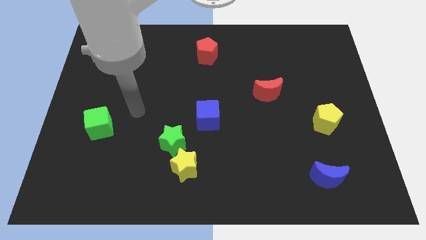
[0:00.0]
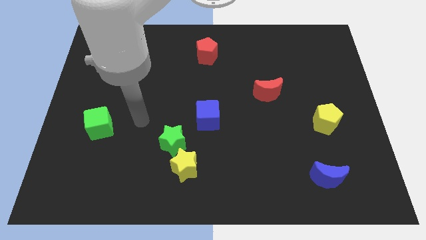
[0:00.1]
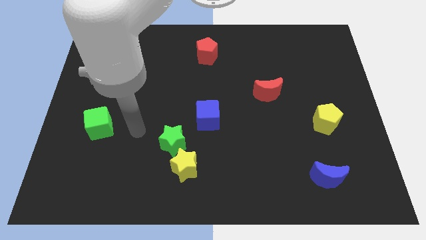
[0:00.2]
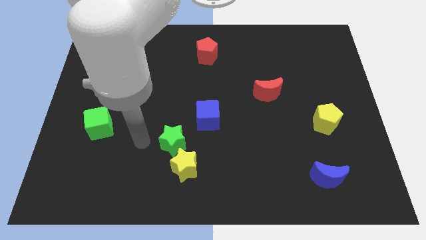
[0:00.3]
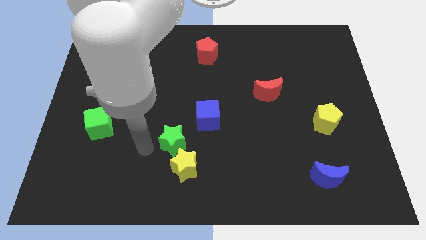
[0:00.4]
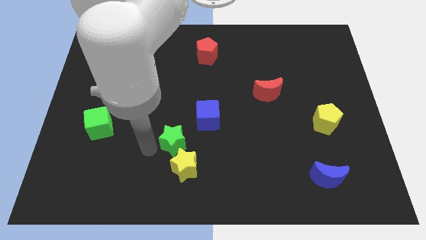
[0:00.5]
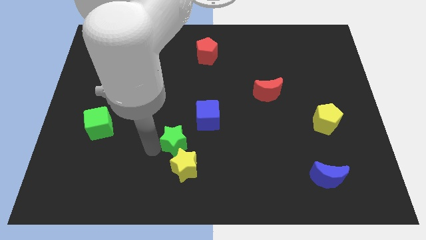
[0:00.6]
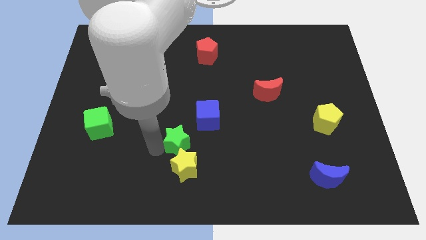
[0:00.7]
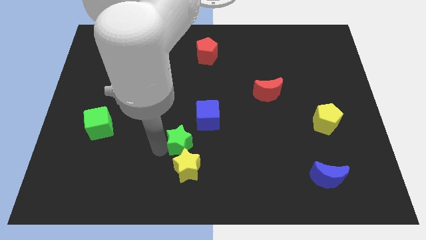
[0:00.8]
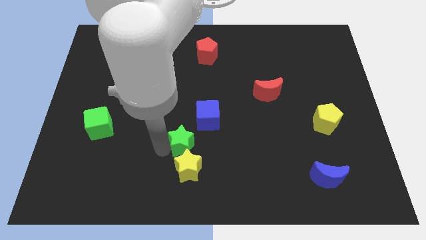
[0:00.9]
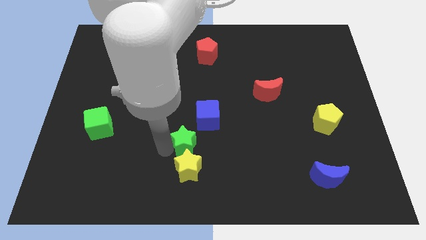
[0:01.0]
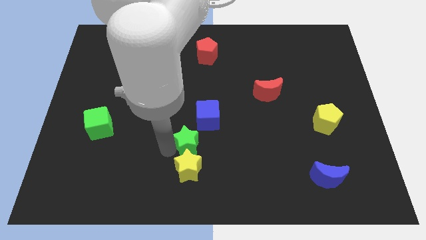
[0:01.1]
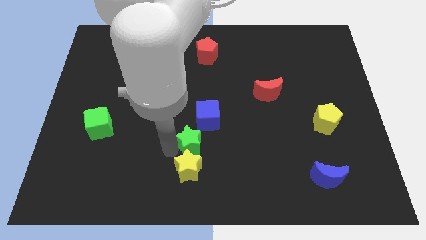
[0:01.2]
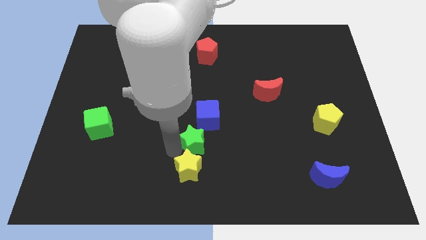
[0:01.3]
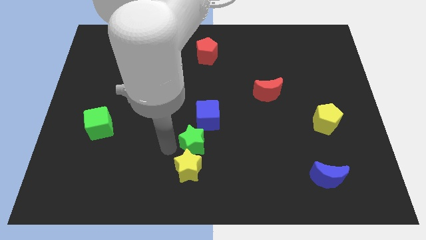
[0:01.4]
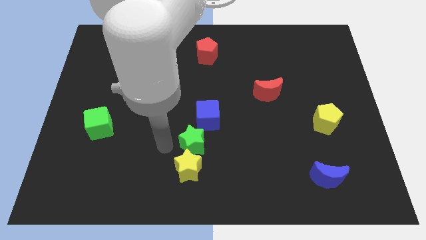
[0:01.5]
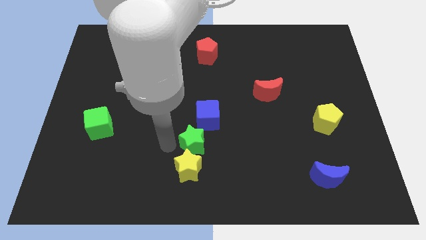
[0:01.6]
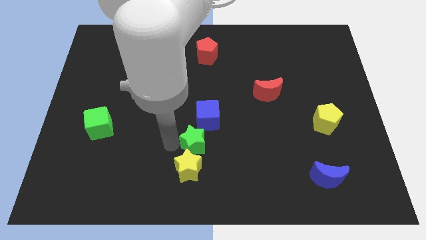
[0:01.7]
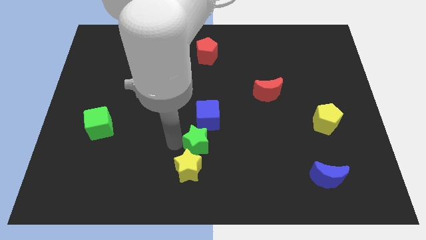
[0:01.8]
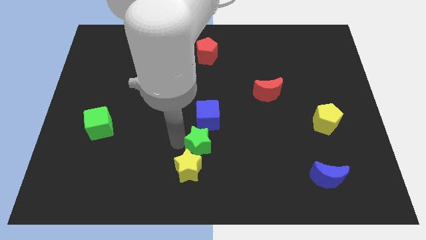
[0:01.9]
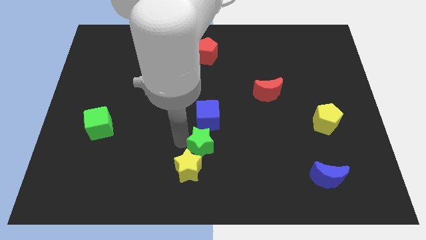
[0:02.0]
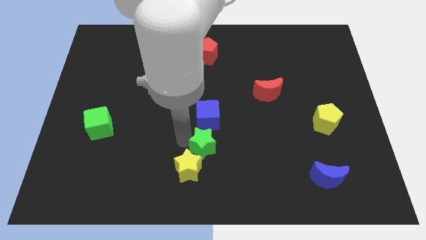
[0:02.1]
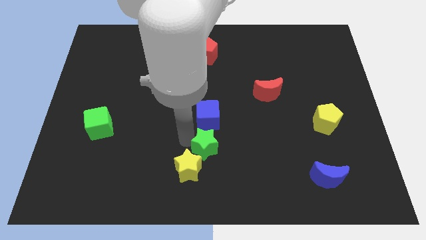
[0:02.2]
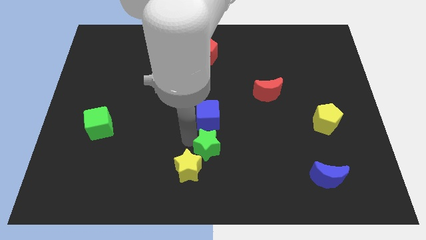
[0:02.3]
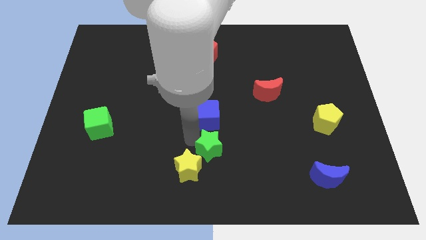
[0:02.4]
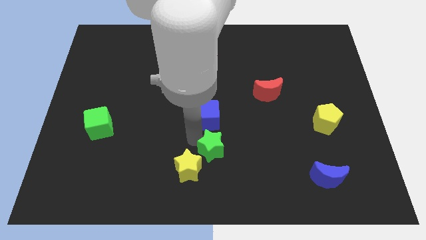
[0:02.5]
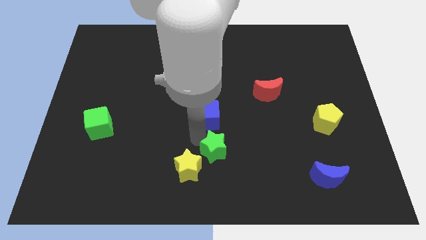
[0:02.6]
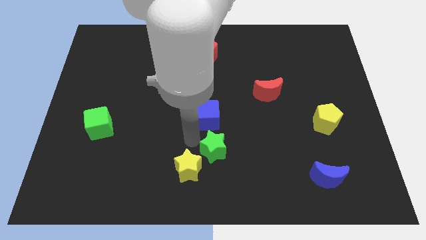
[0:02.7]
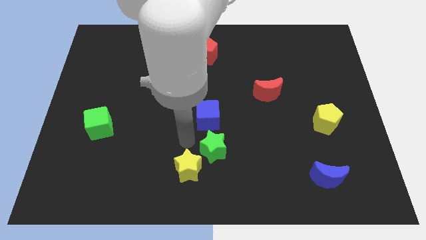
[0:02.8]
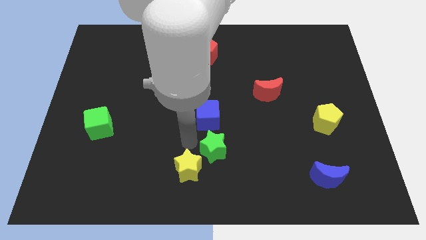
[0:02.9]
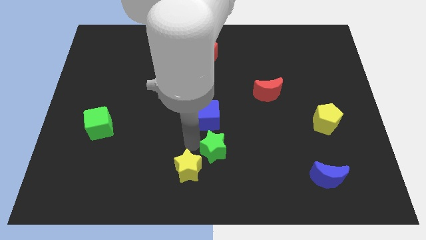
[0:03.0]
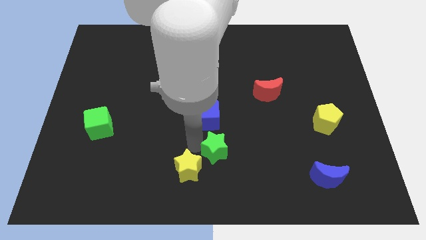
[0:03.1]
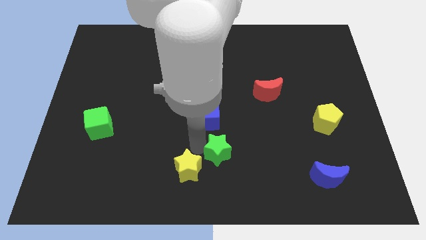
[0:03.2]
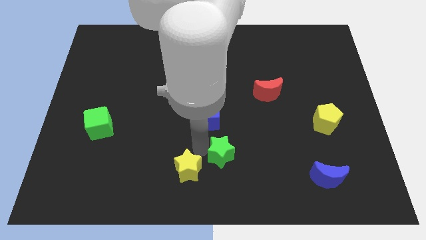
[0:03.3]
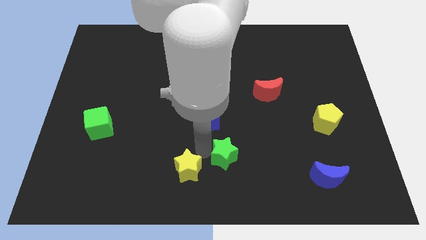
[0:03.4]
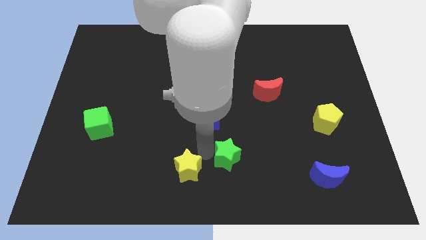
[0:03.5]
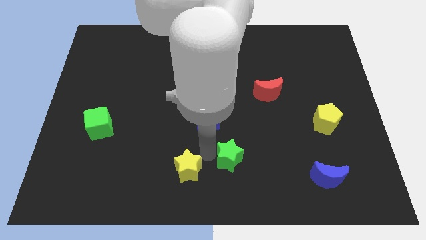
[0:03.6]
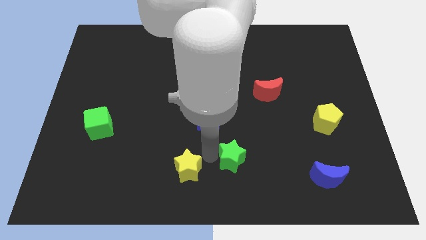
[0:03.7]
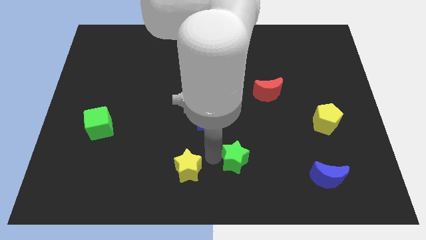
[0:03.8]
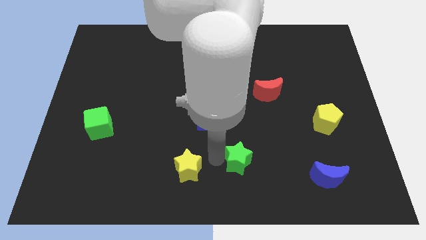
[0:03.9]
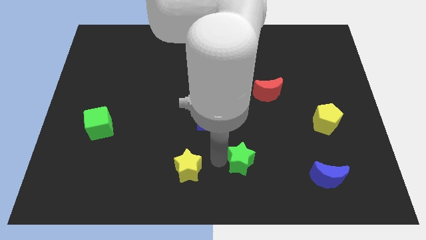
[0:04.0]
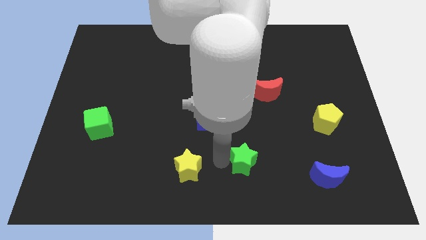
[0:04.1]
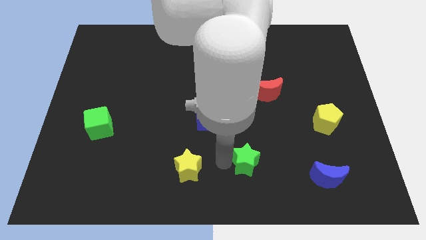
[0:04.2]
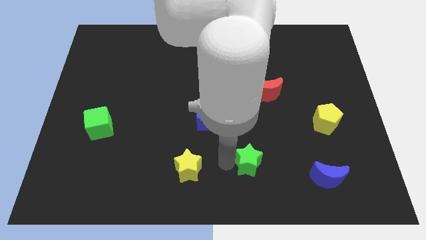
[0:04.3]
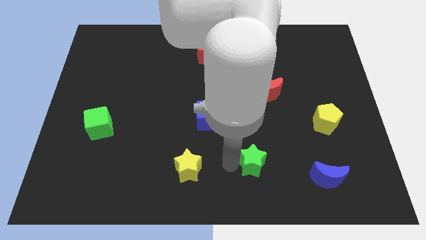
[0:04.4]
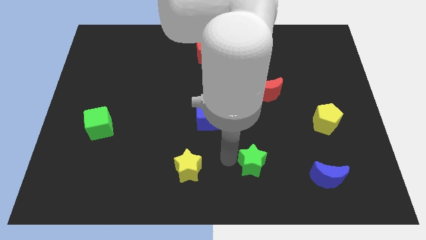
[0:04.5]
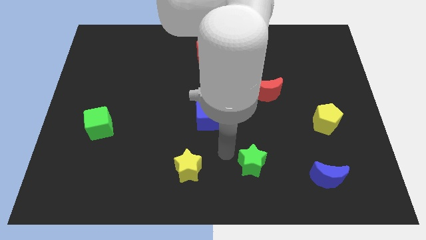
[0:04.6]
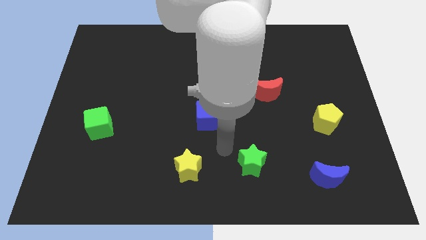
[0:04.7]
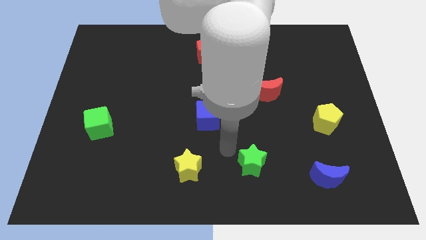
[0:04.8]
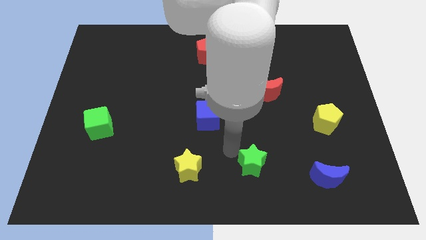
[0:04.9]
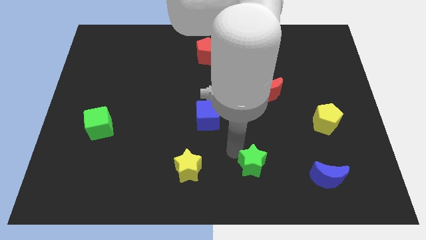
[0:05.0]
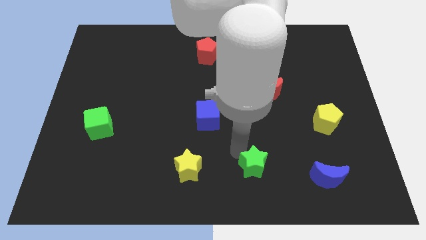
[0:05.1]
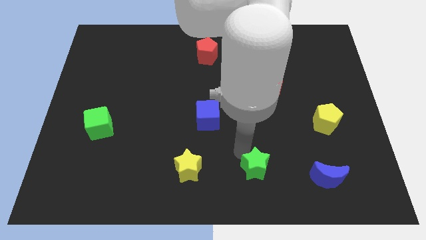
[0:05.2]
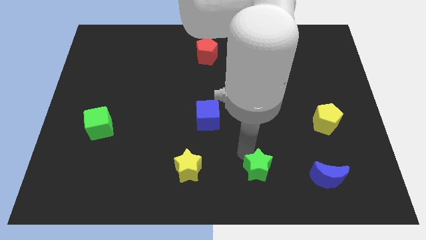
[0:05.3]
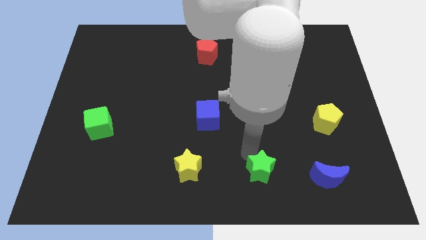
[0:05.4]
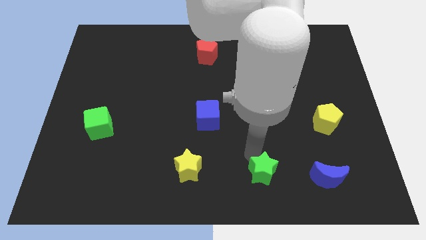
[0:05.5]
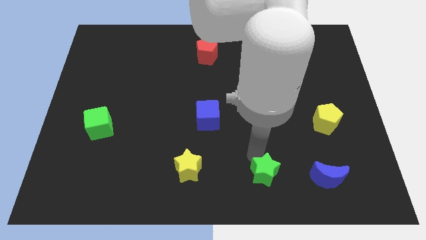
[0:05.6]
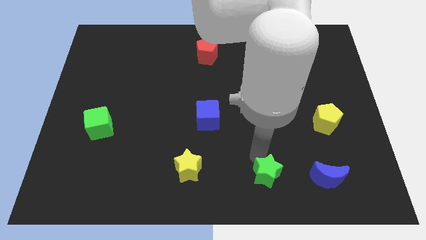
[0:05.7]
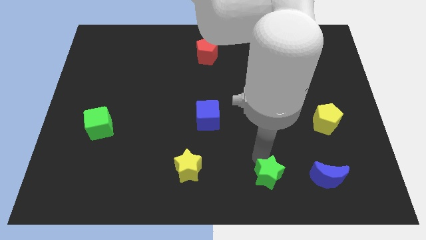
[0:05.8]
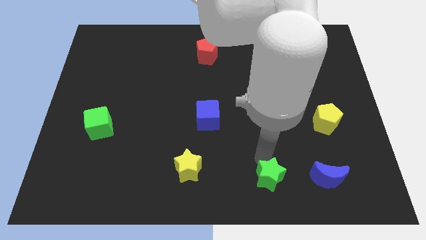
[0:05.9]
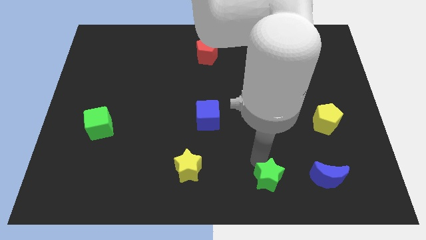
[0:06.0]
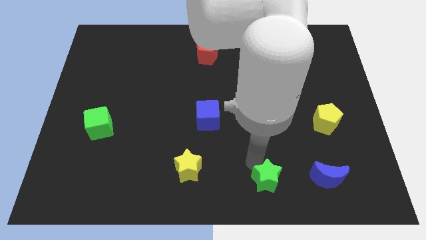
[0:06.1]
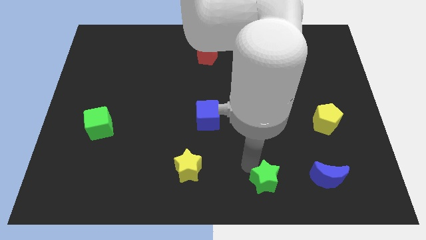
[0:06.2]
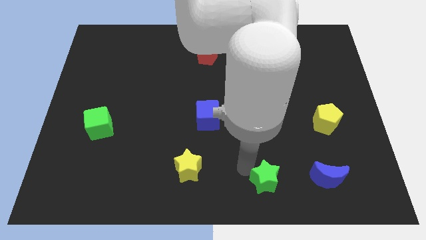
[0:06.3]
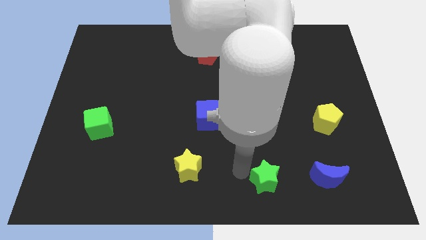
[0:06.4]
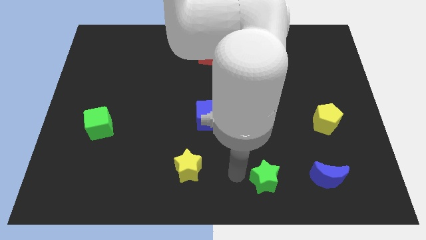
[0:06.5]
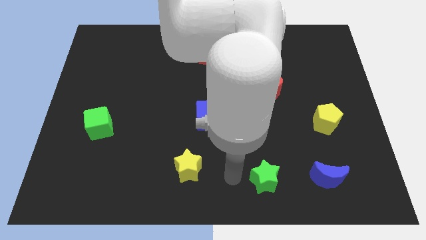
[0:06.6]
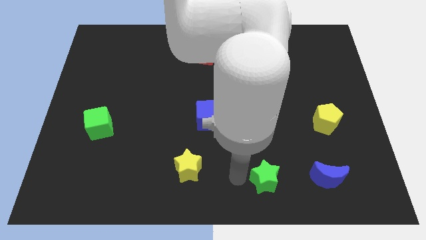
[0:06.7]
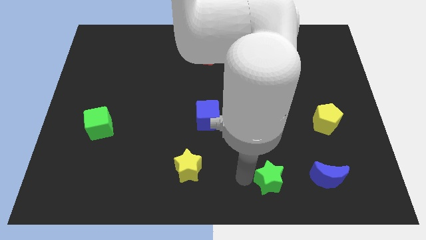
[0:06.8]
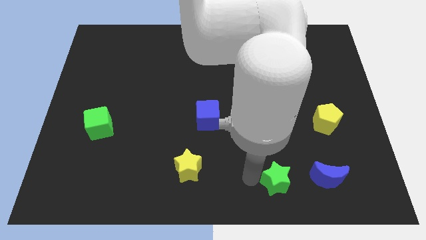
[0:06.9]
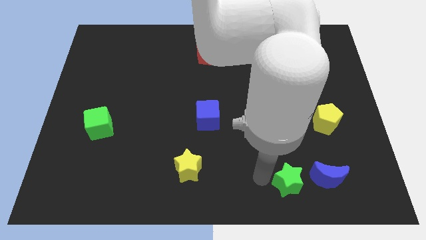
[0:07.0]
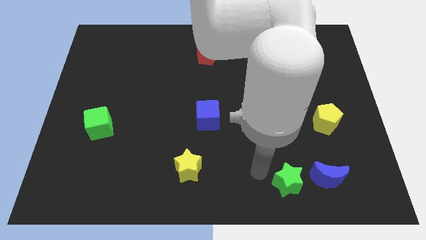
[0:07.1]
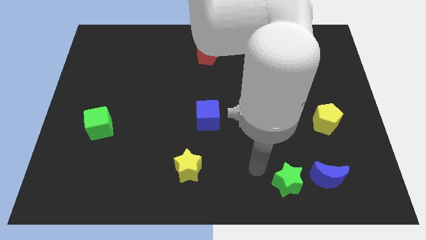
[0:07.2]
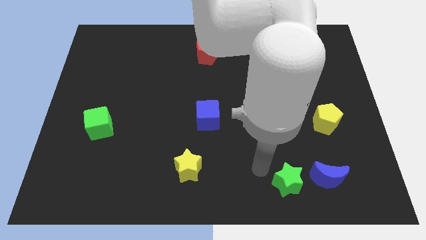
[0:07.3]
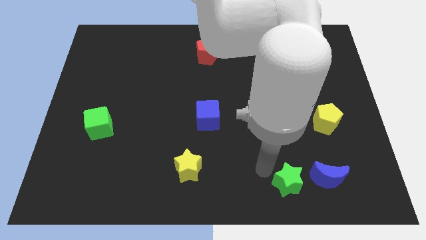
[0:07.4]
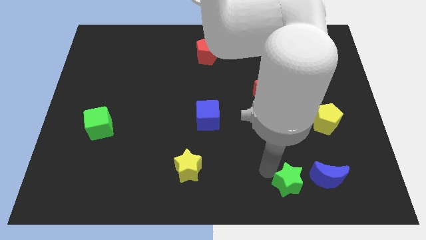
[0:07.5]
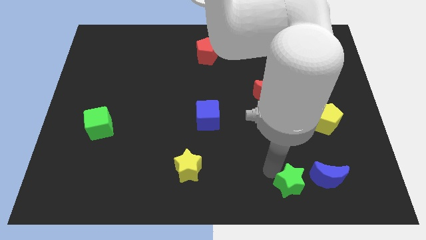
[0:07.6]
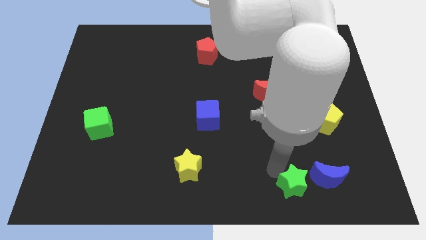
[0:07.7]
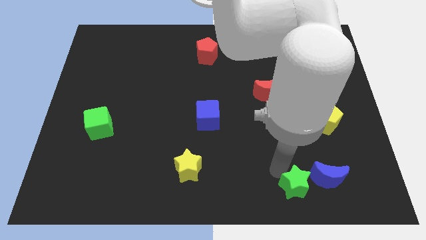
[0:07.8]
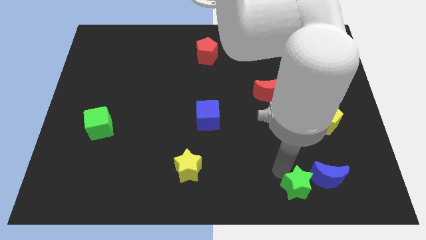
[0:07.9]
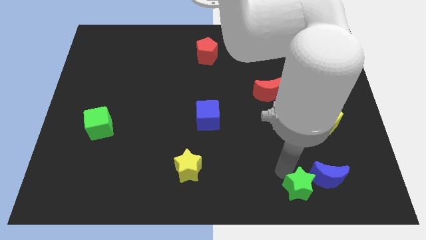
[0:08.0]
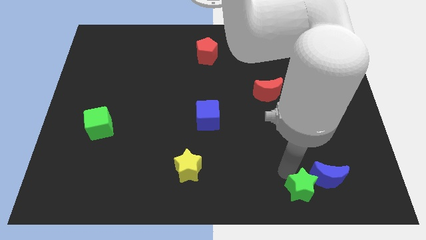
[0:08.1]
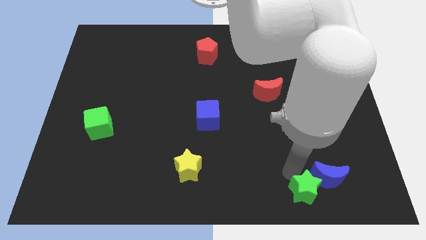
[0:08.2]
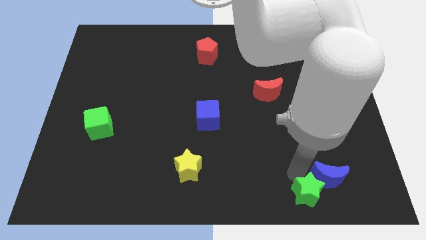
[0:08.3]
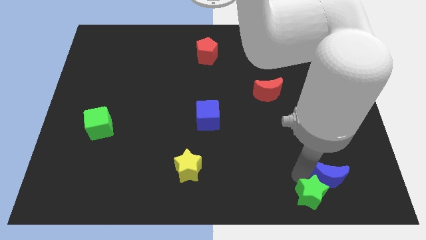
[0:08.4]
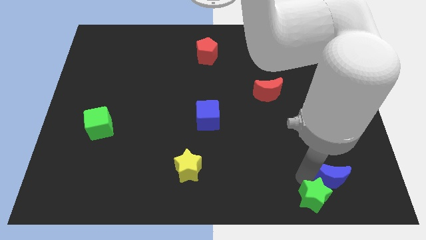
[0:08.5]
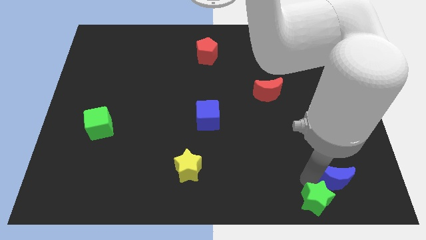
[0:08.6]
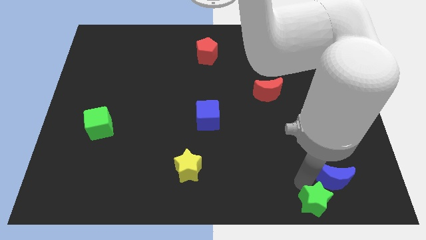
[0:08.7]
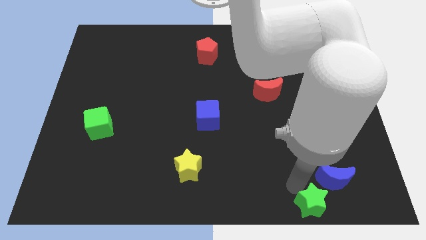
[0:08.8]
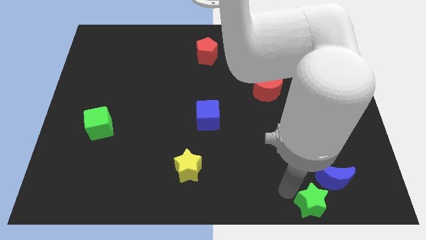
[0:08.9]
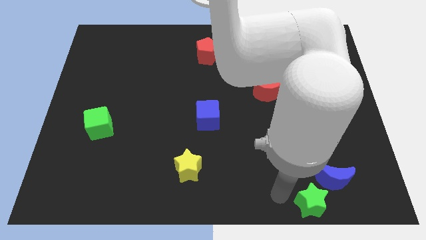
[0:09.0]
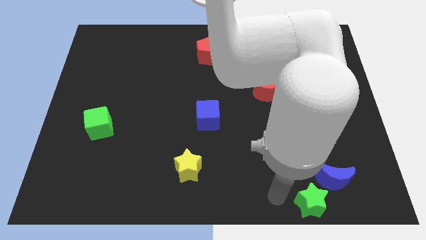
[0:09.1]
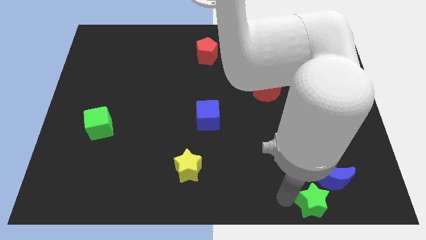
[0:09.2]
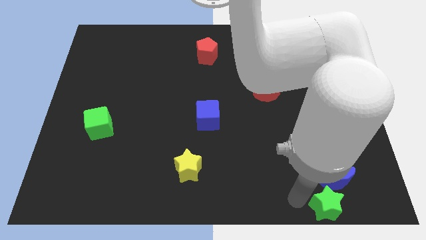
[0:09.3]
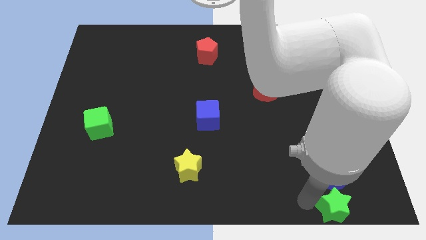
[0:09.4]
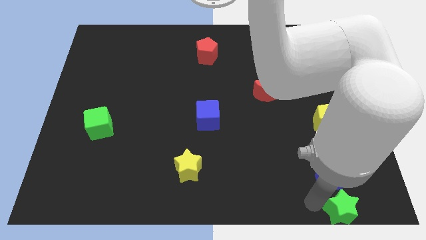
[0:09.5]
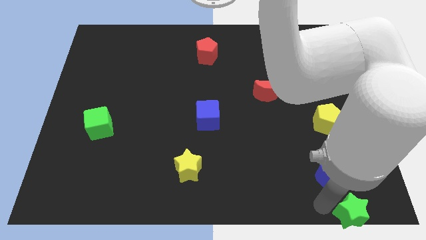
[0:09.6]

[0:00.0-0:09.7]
put the green star to the bottom right corner
